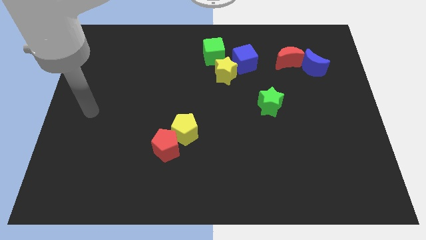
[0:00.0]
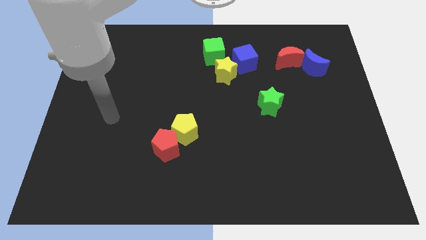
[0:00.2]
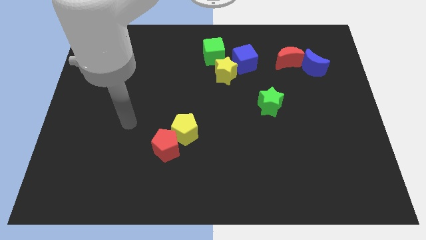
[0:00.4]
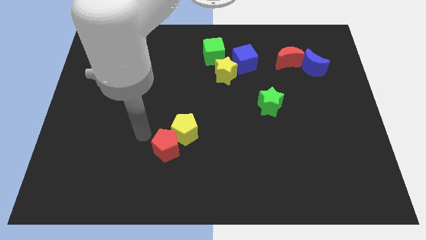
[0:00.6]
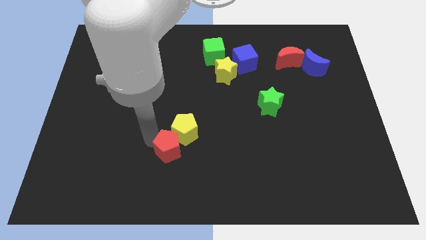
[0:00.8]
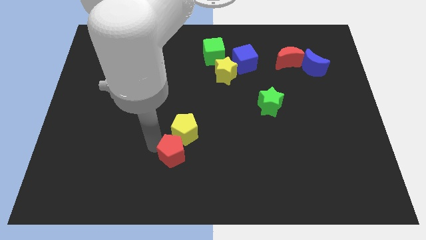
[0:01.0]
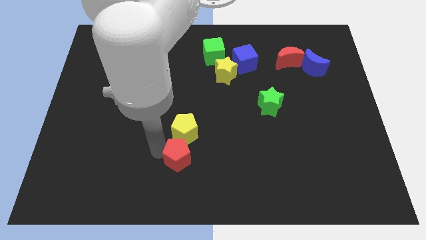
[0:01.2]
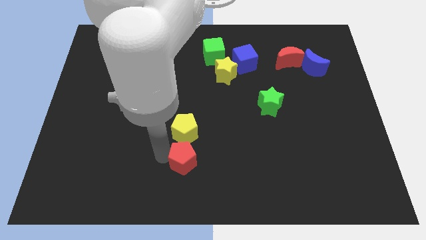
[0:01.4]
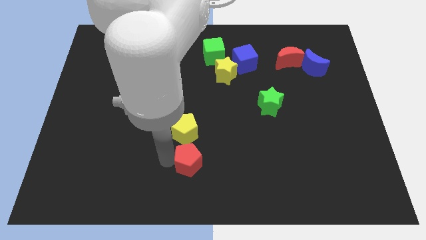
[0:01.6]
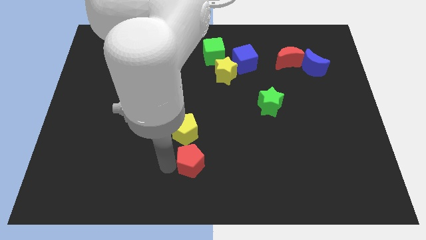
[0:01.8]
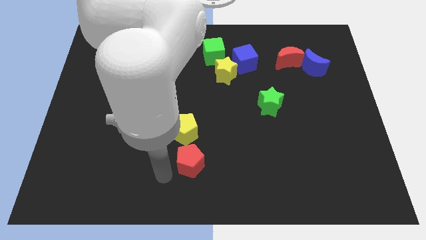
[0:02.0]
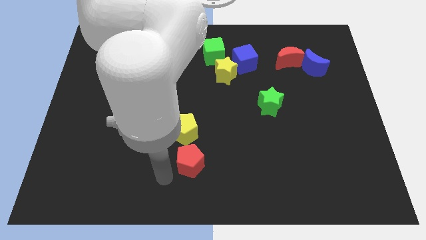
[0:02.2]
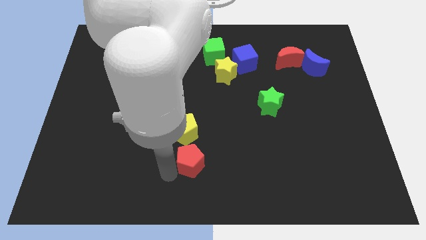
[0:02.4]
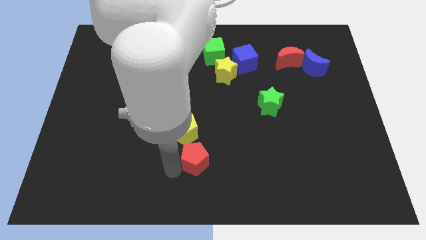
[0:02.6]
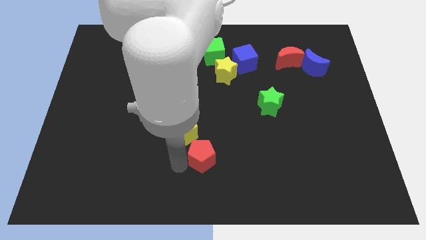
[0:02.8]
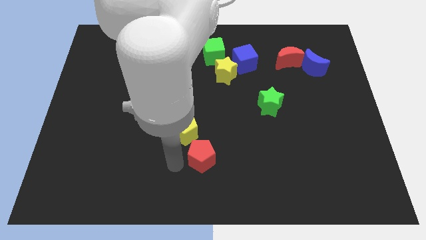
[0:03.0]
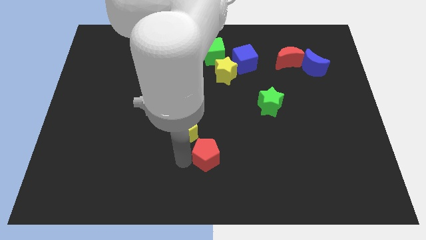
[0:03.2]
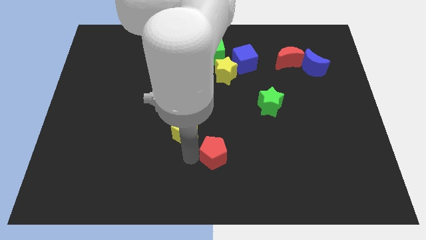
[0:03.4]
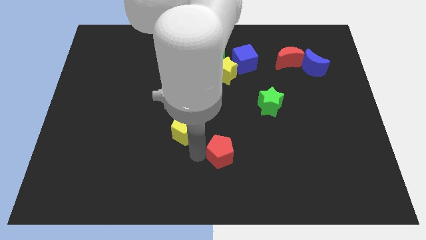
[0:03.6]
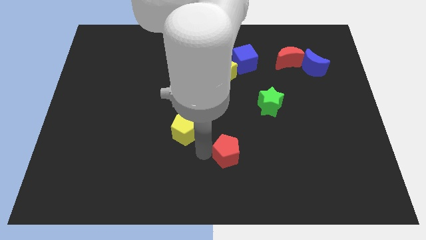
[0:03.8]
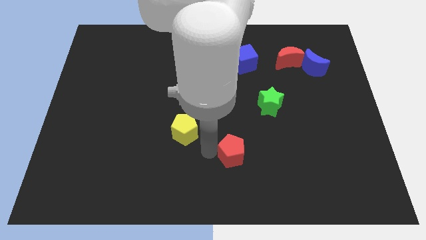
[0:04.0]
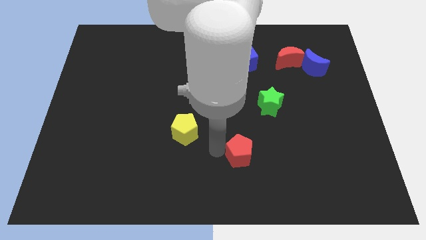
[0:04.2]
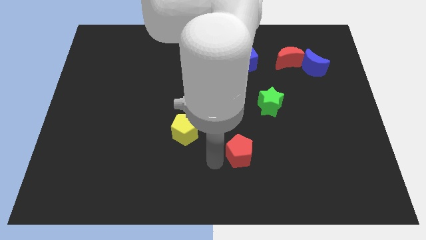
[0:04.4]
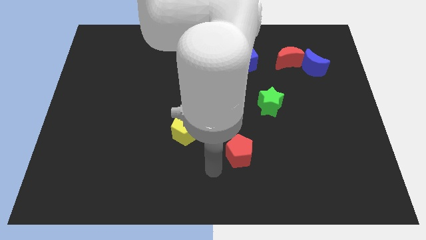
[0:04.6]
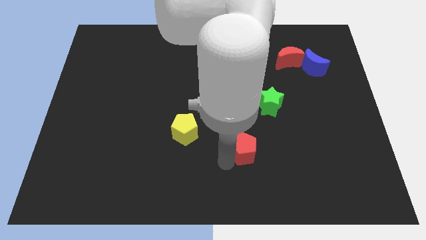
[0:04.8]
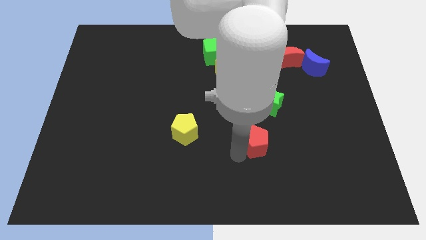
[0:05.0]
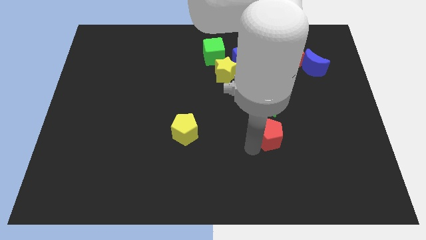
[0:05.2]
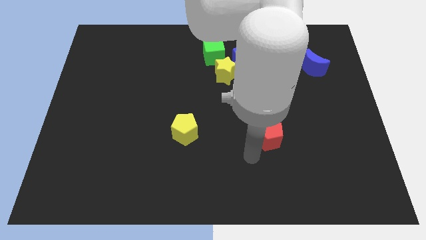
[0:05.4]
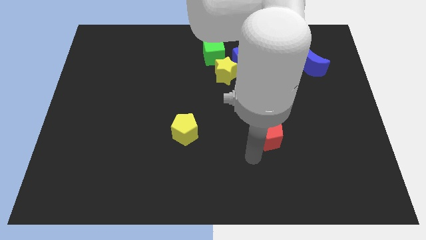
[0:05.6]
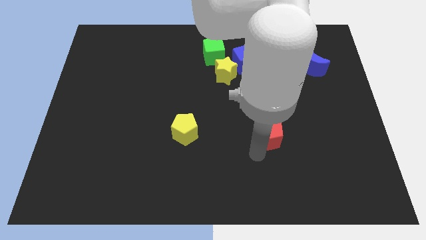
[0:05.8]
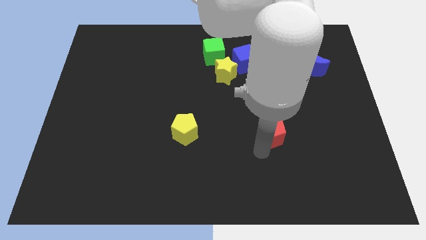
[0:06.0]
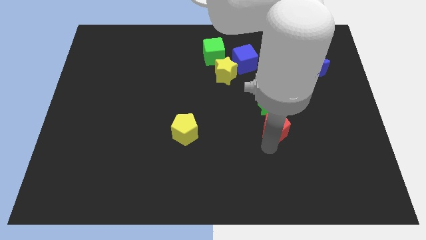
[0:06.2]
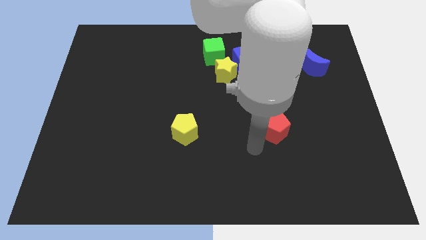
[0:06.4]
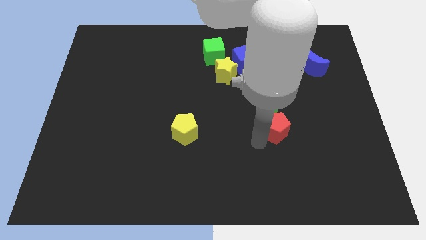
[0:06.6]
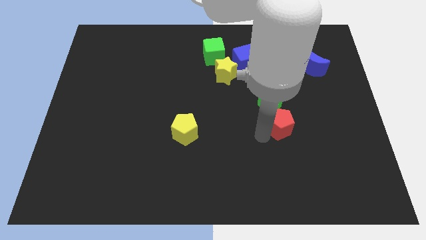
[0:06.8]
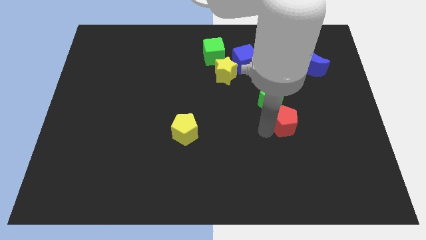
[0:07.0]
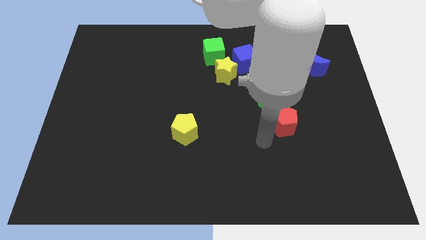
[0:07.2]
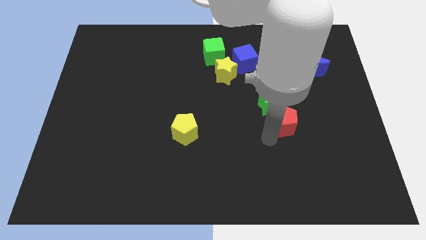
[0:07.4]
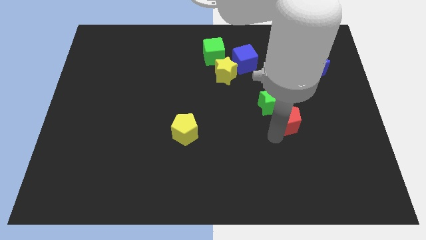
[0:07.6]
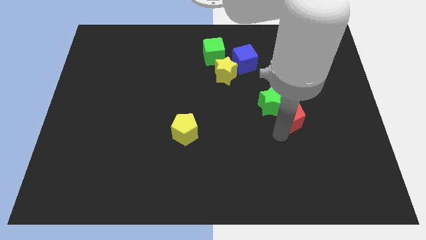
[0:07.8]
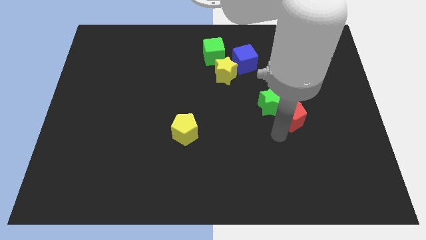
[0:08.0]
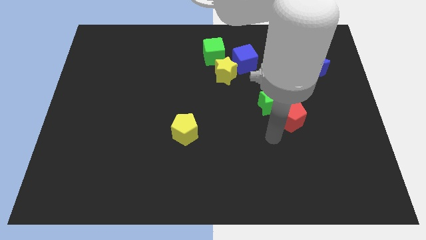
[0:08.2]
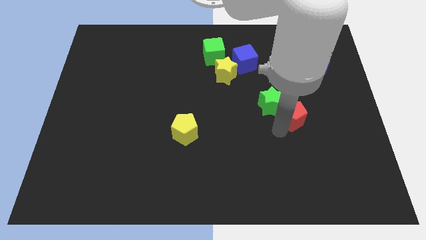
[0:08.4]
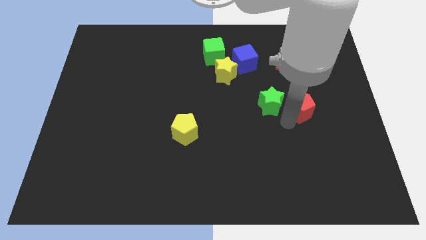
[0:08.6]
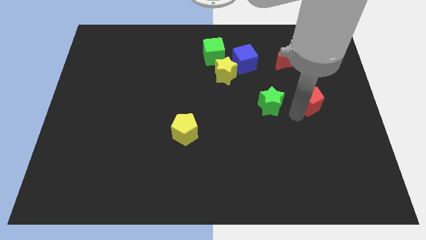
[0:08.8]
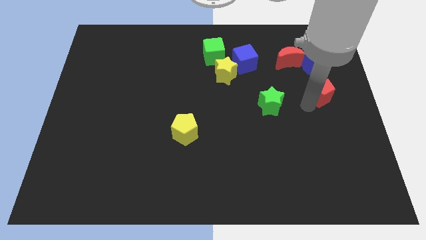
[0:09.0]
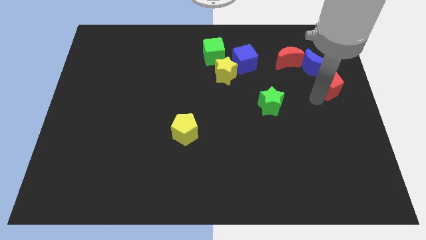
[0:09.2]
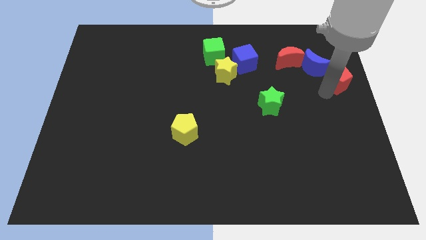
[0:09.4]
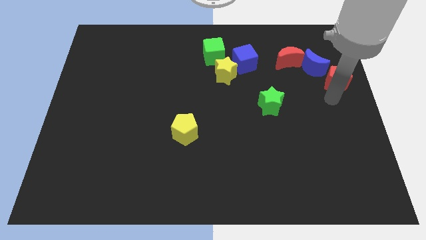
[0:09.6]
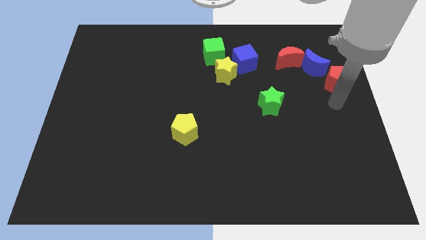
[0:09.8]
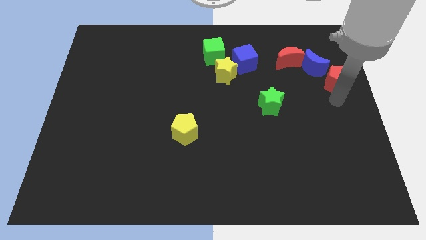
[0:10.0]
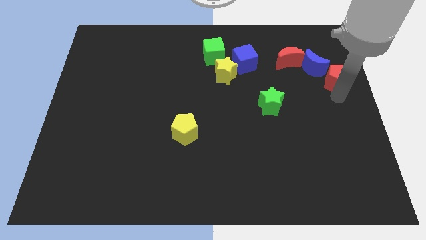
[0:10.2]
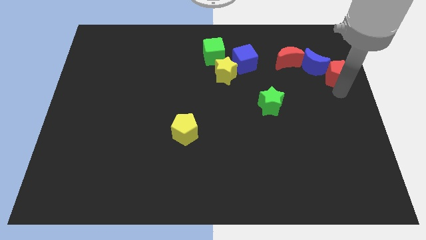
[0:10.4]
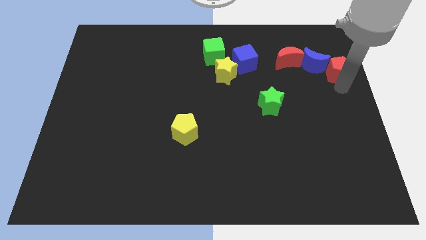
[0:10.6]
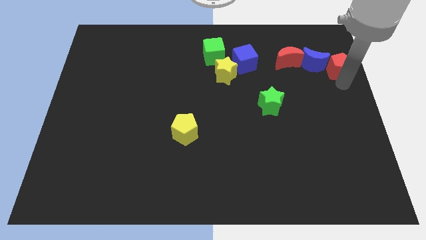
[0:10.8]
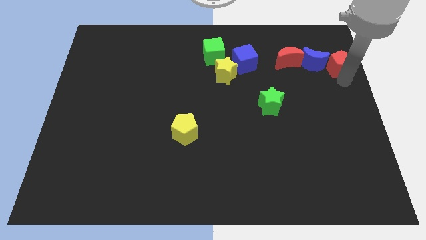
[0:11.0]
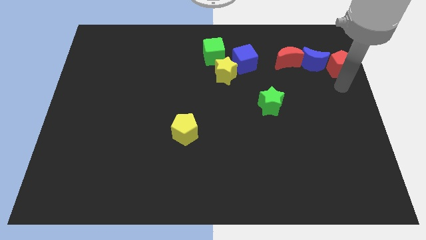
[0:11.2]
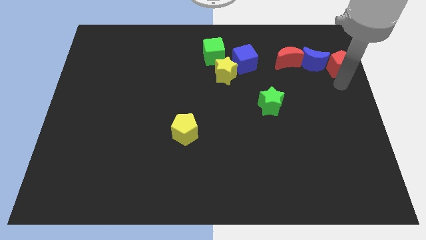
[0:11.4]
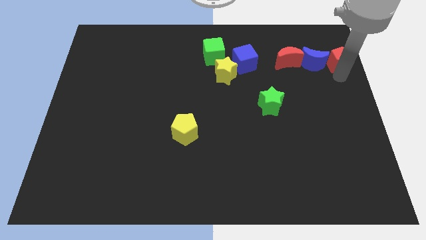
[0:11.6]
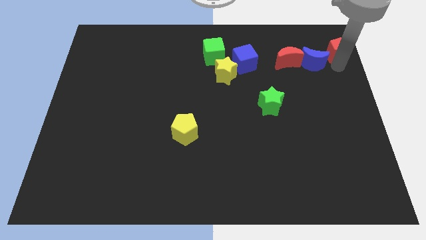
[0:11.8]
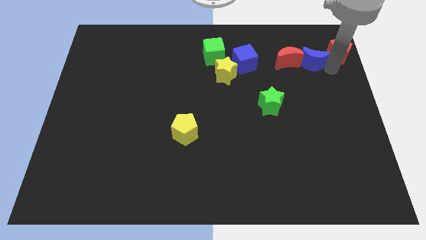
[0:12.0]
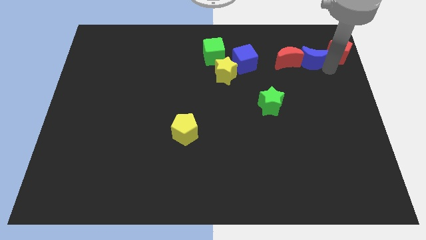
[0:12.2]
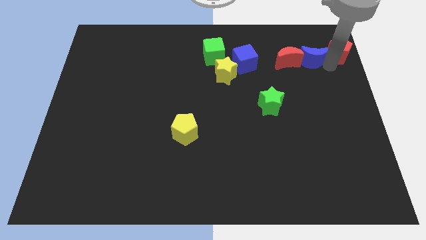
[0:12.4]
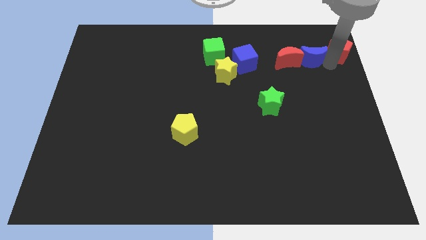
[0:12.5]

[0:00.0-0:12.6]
put the red pentagon to the top right of the board
